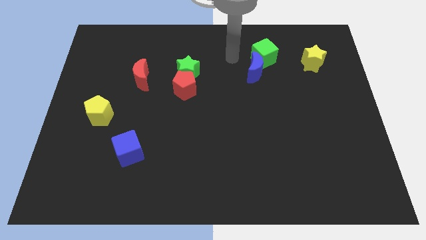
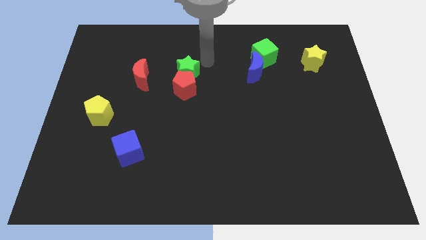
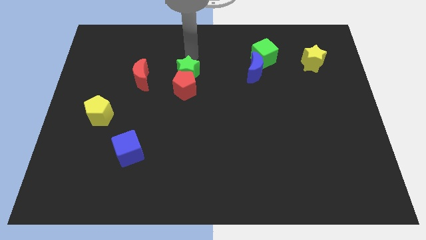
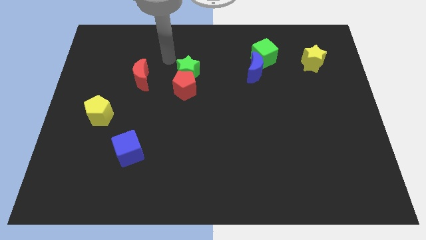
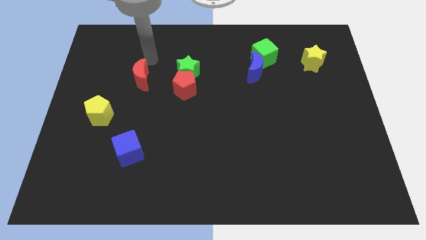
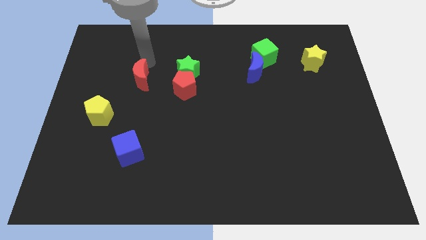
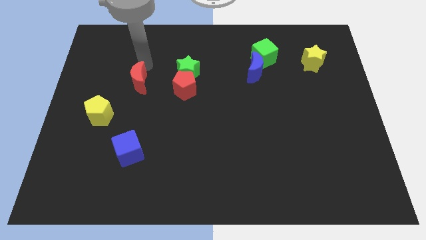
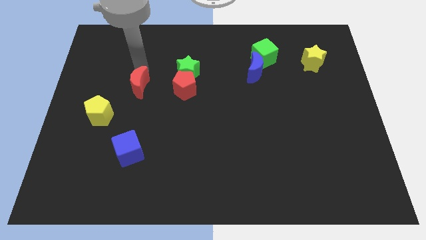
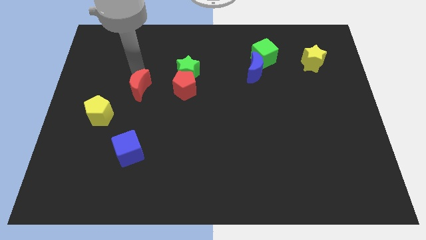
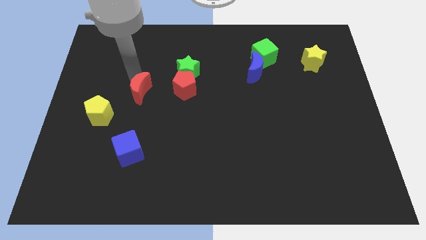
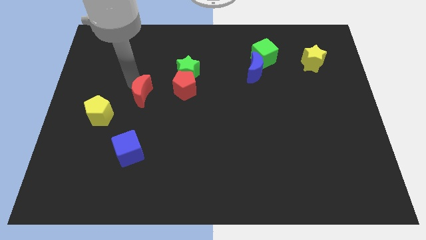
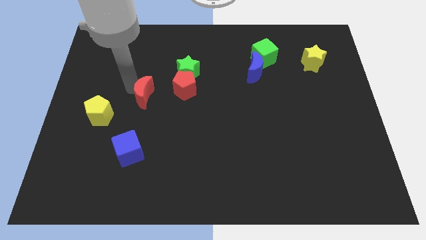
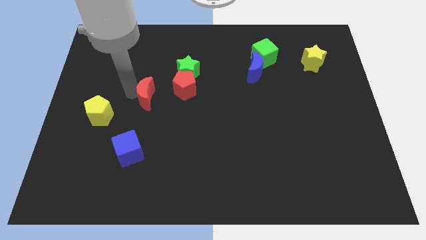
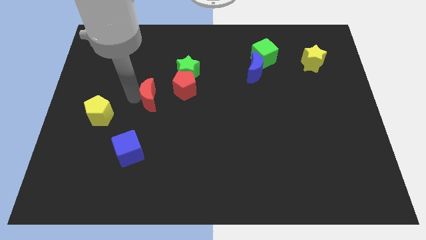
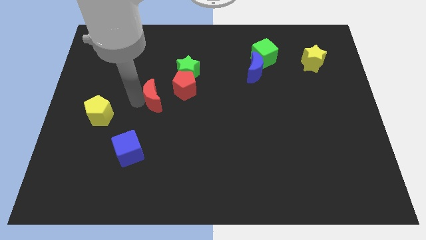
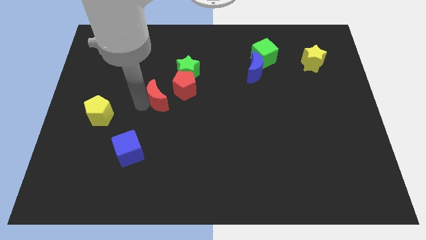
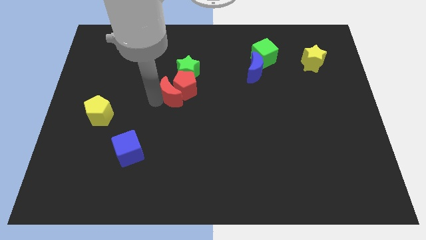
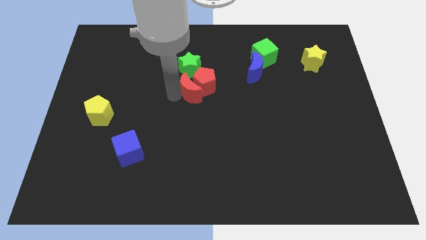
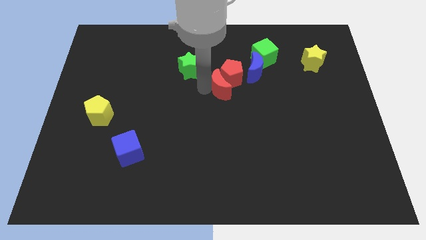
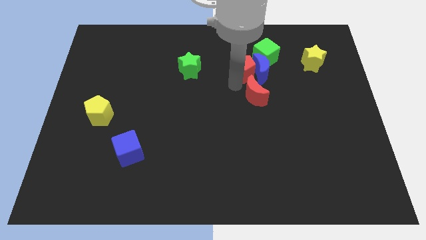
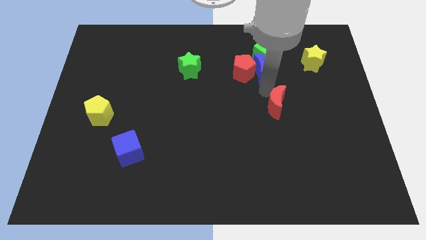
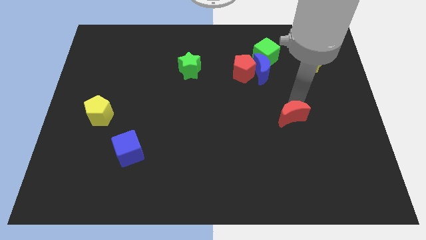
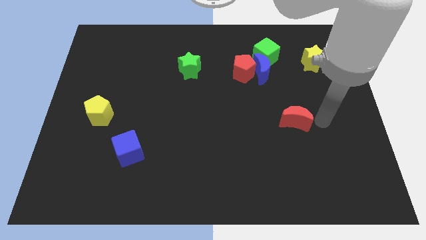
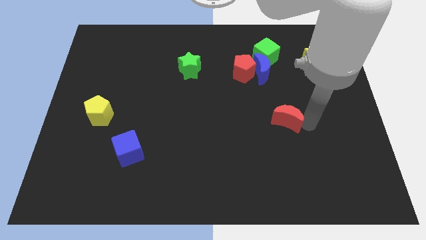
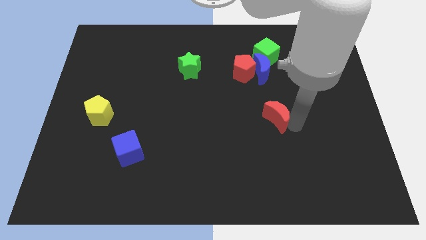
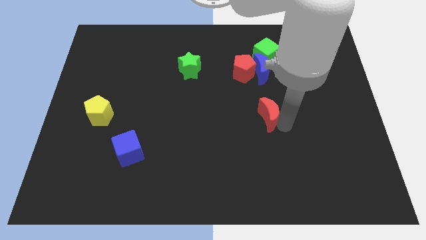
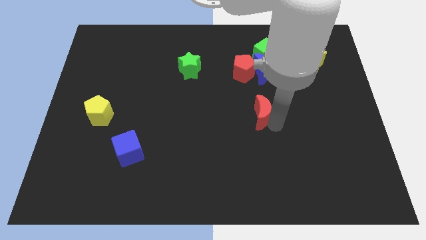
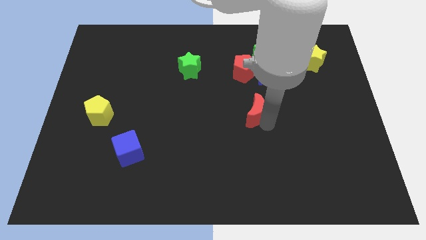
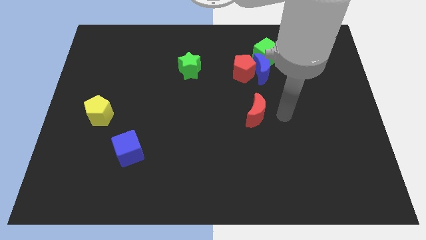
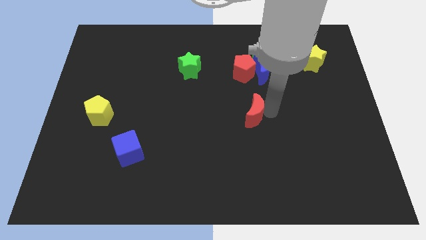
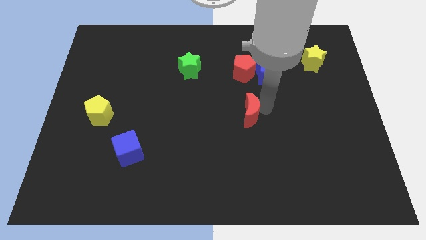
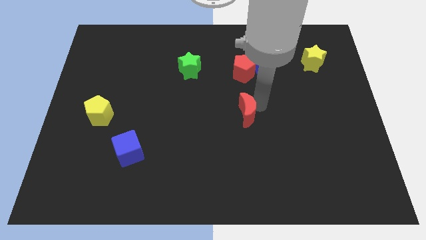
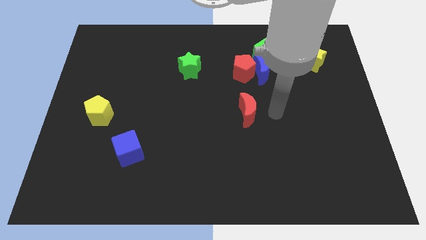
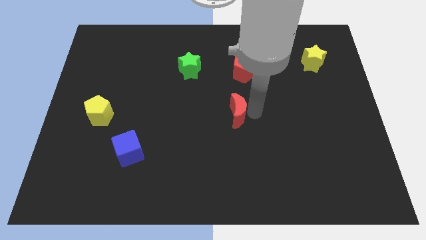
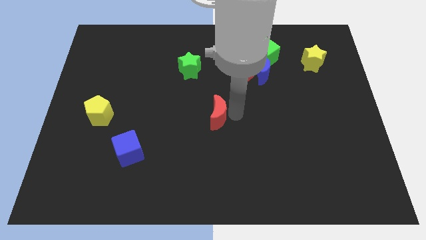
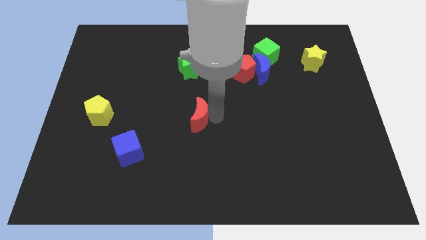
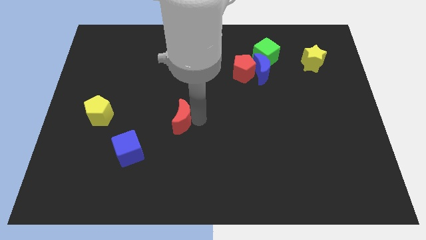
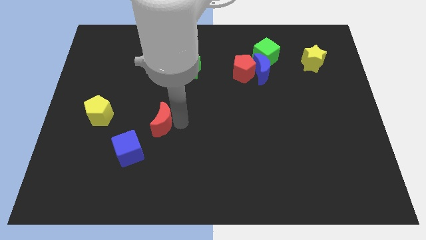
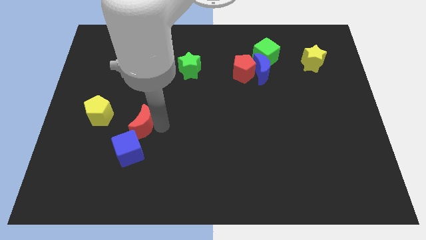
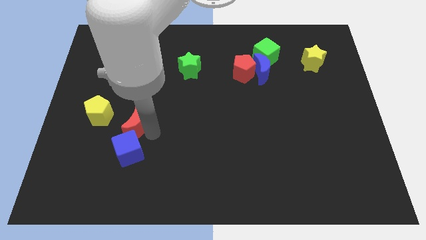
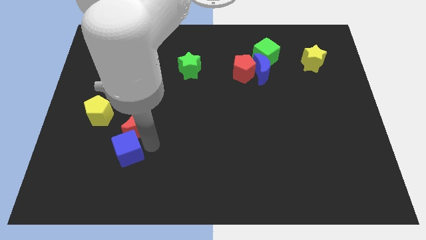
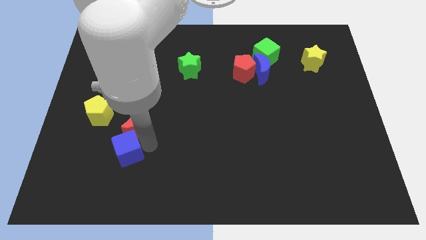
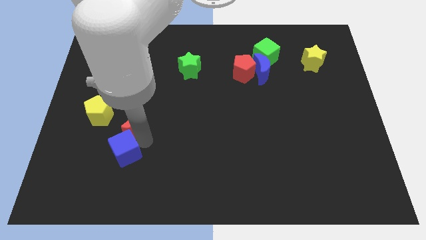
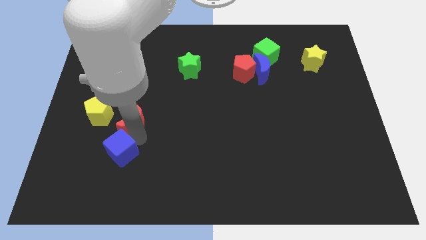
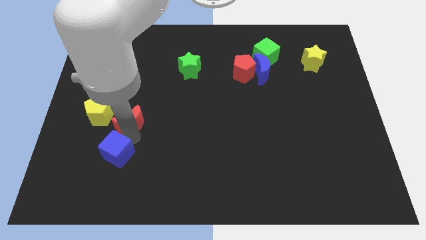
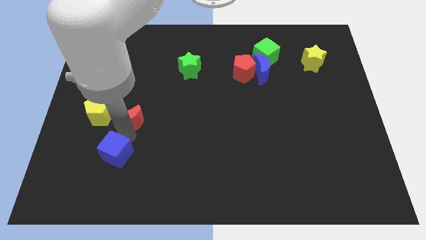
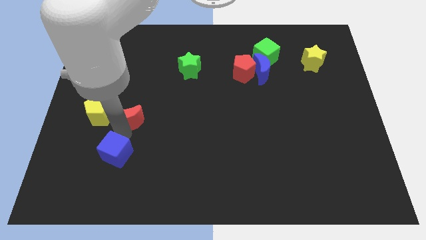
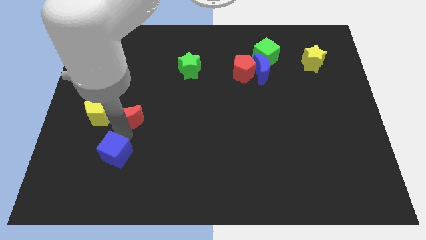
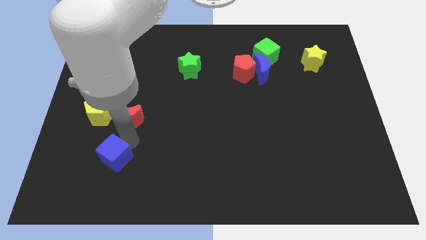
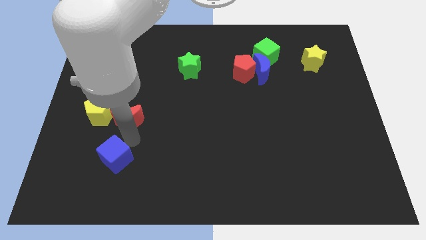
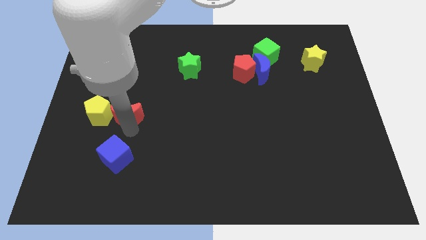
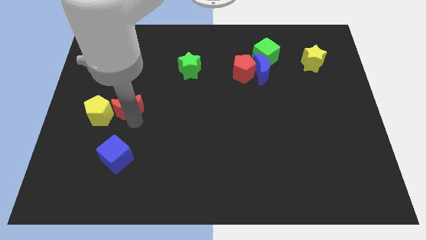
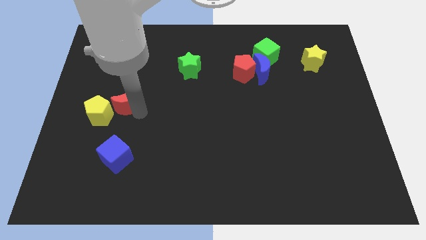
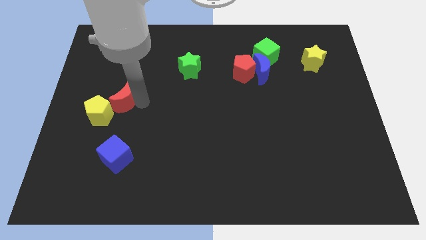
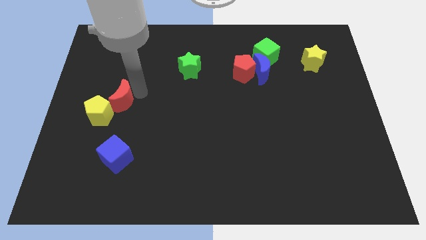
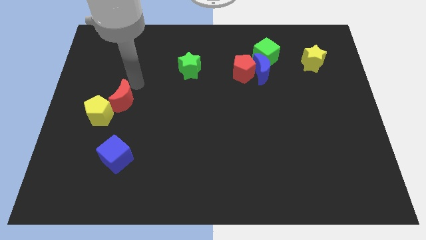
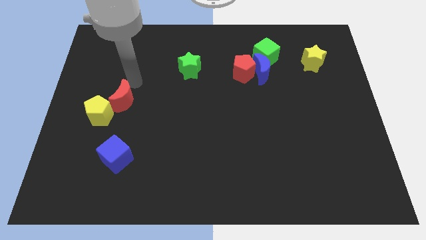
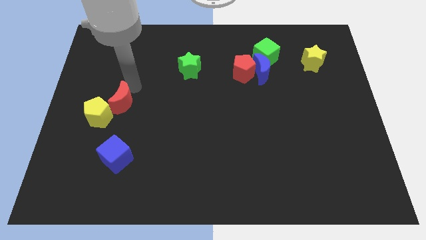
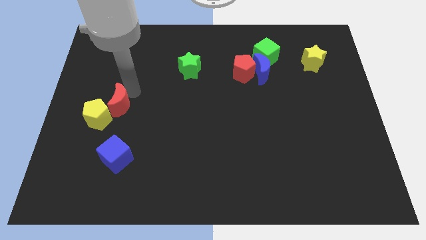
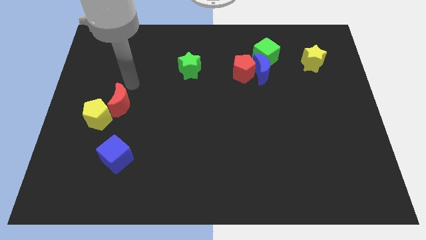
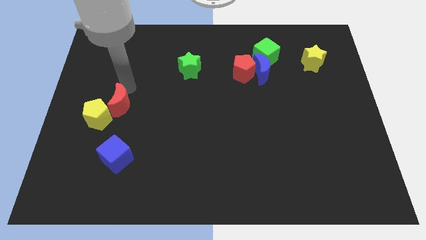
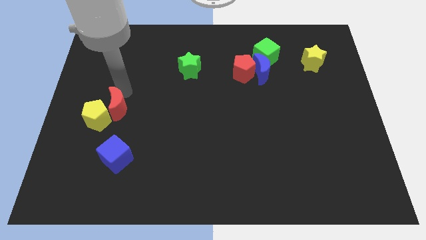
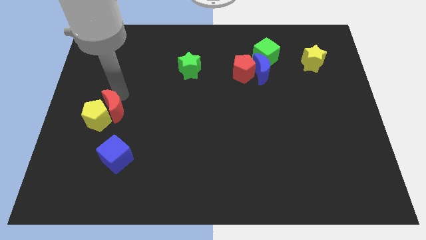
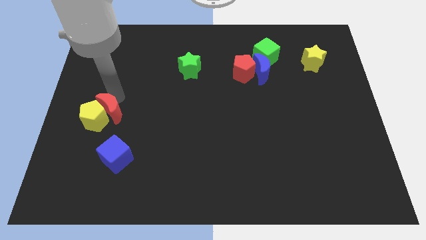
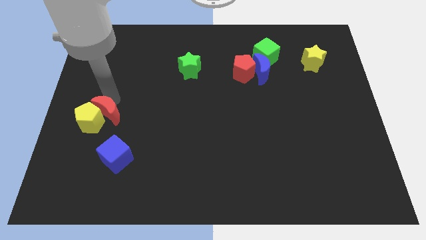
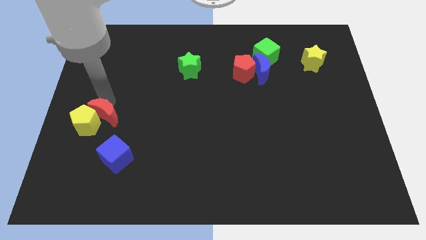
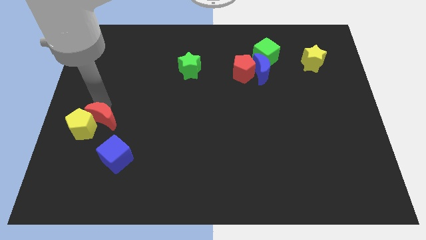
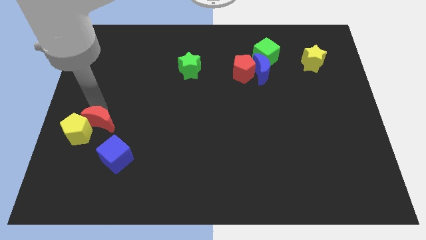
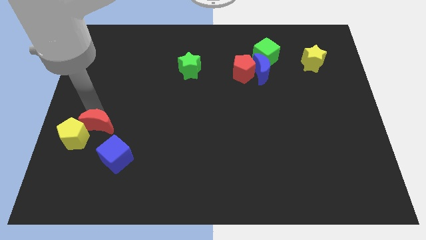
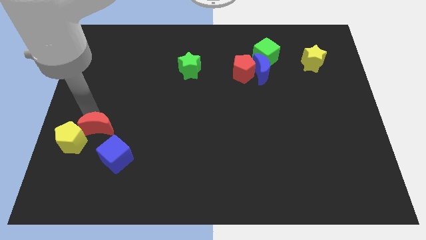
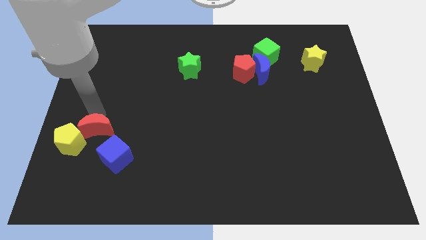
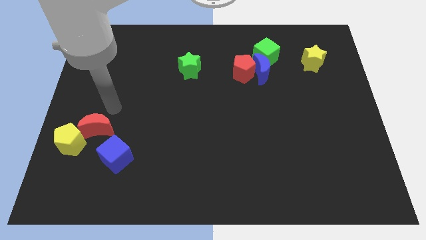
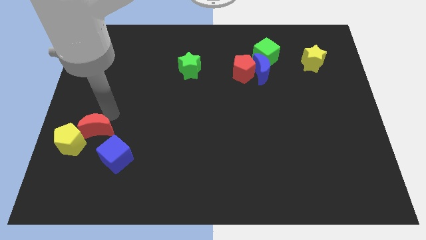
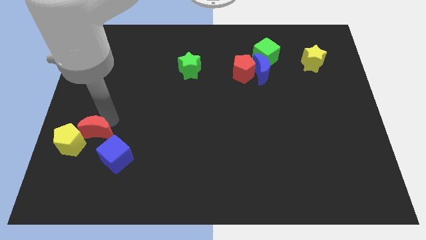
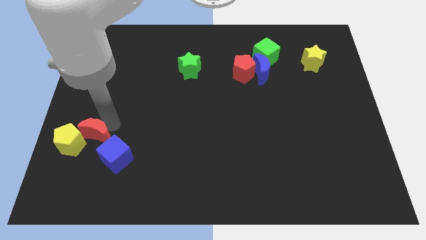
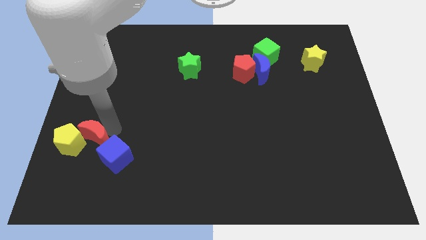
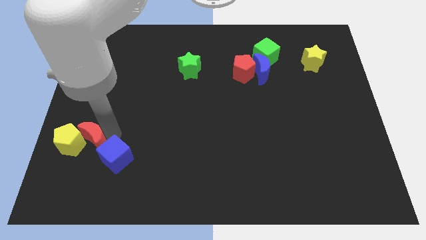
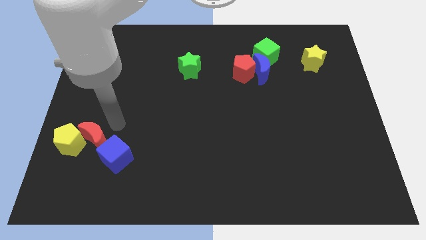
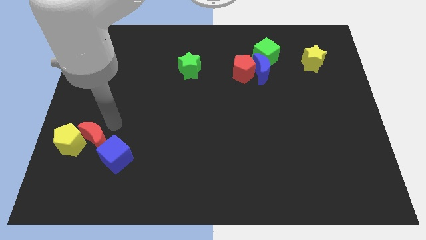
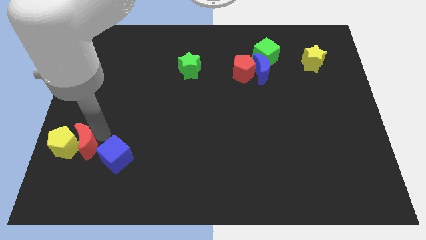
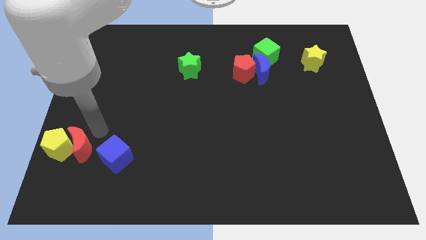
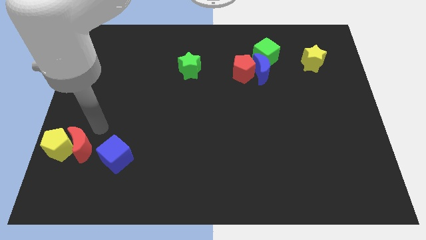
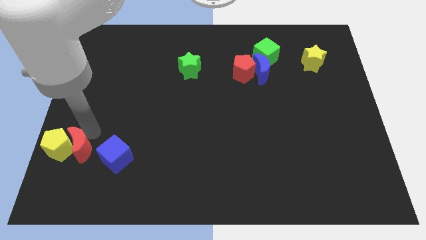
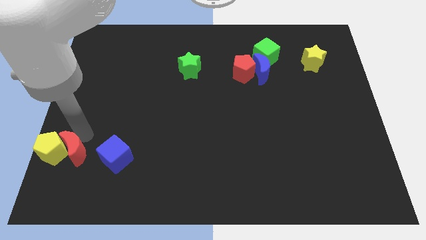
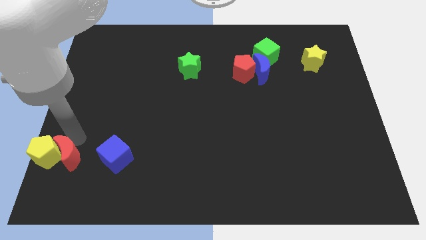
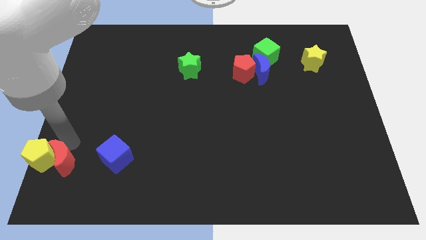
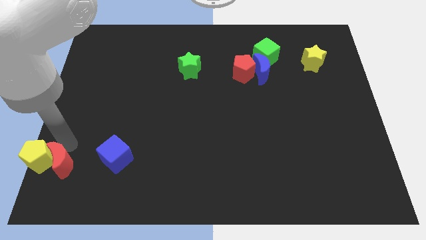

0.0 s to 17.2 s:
push the red moon to the bottom left
